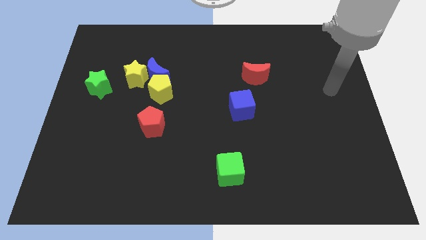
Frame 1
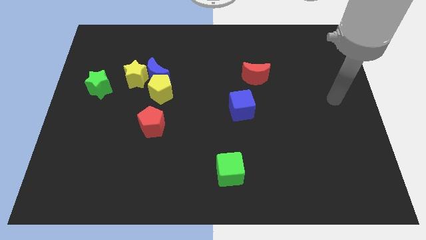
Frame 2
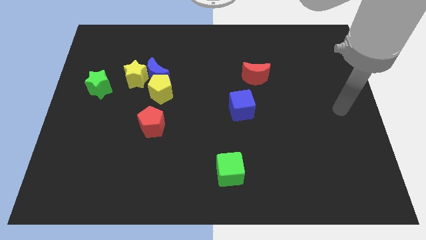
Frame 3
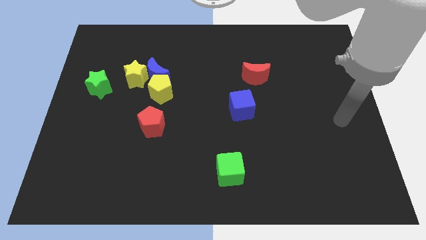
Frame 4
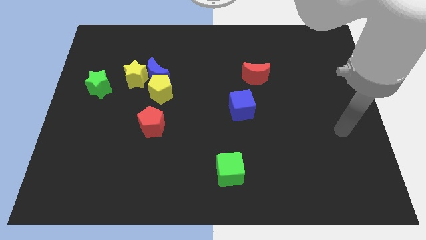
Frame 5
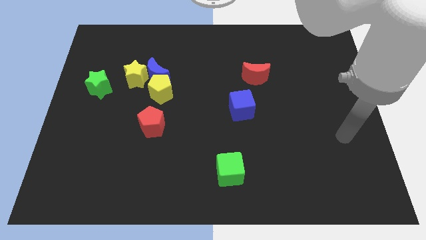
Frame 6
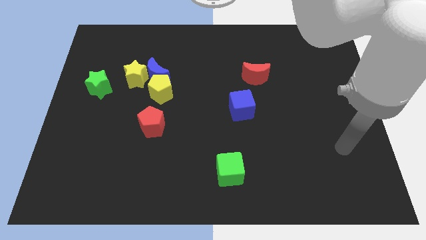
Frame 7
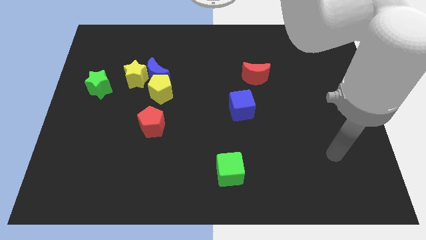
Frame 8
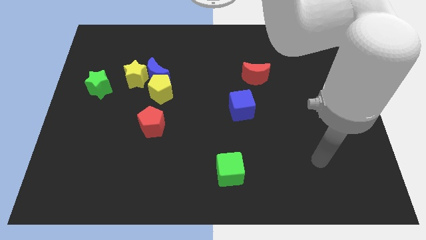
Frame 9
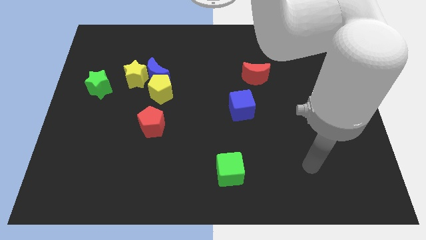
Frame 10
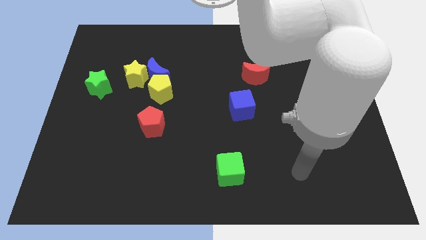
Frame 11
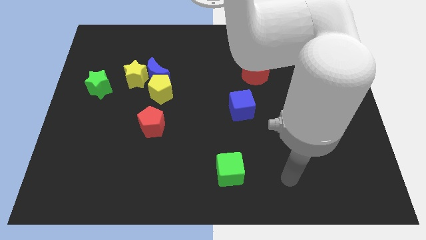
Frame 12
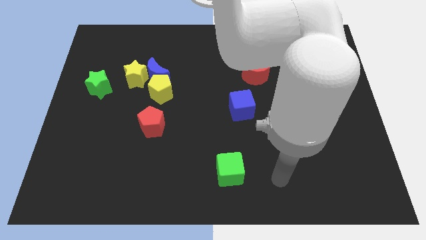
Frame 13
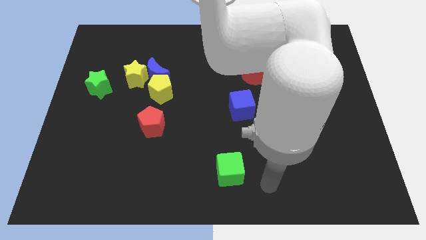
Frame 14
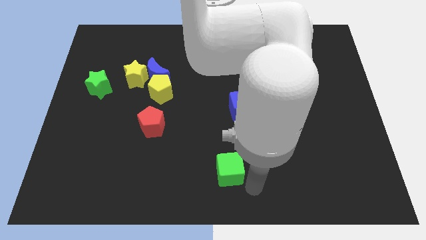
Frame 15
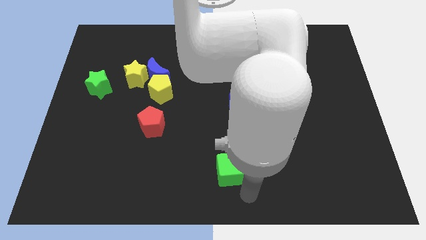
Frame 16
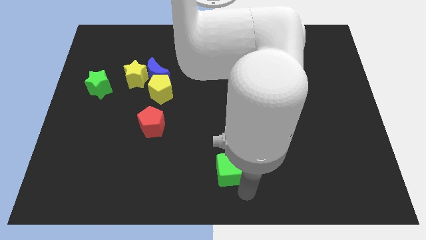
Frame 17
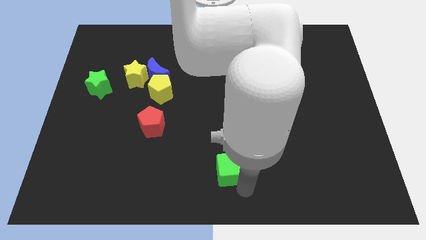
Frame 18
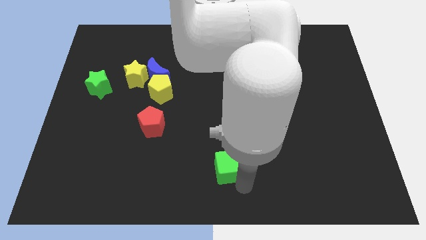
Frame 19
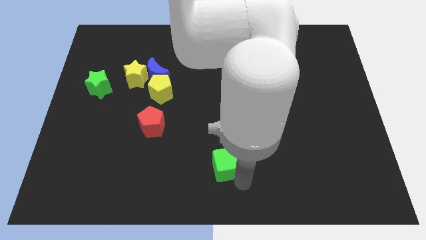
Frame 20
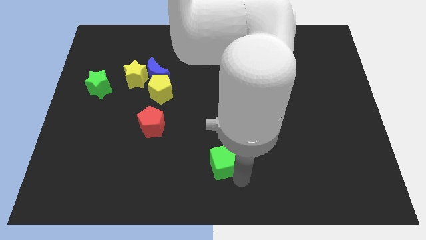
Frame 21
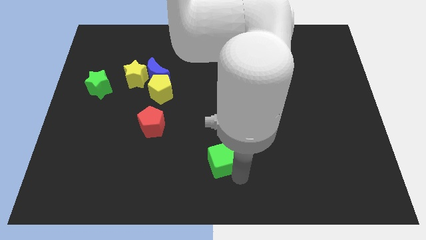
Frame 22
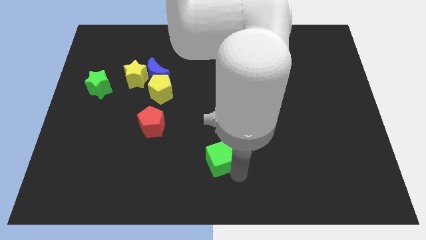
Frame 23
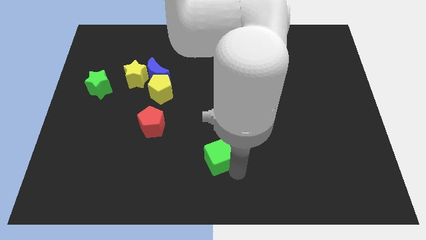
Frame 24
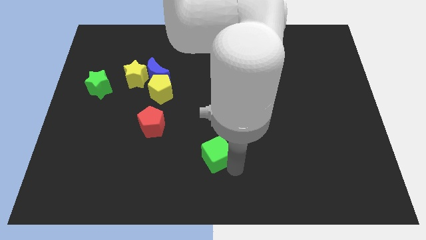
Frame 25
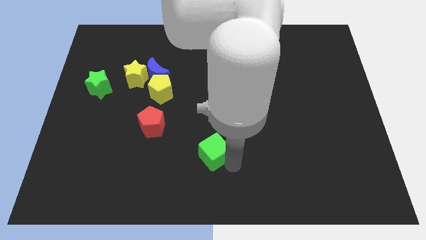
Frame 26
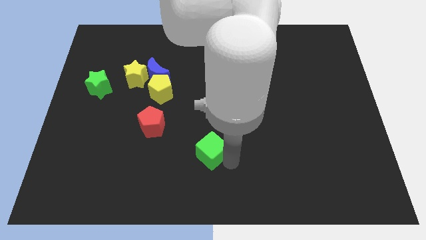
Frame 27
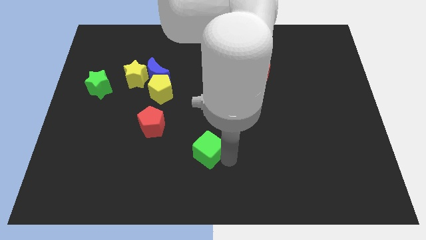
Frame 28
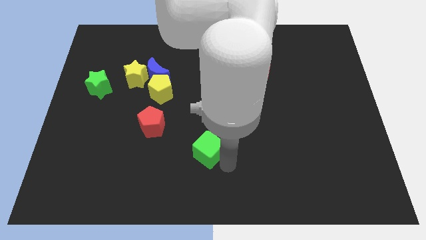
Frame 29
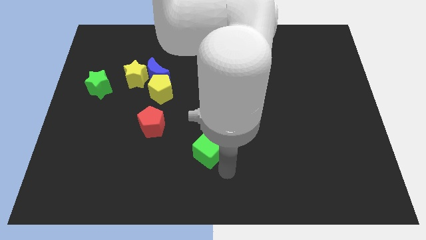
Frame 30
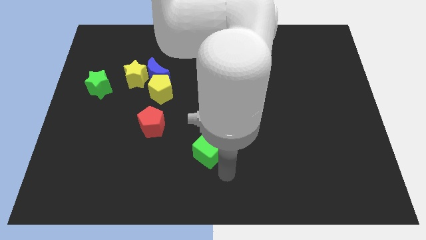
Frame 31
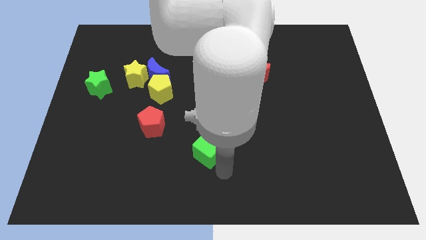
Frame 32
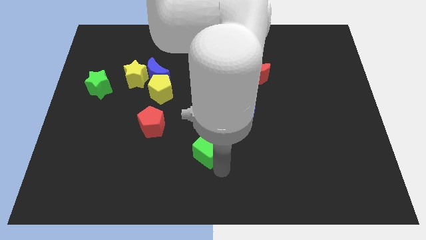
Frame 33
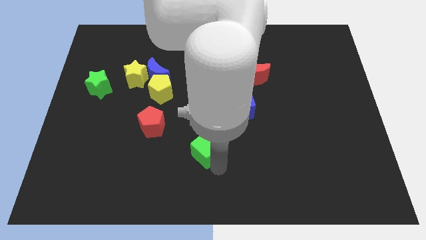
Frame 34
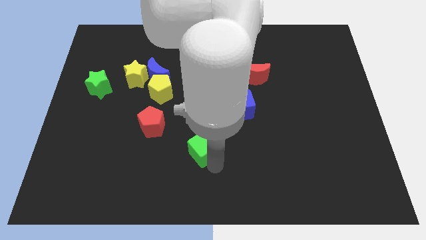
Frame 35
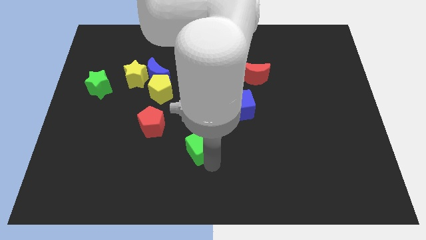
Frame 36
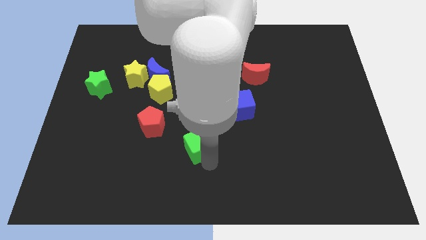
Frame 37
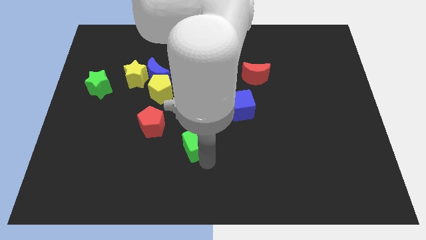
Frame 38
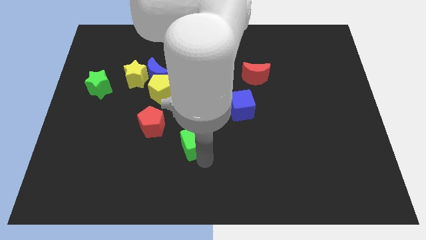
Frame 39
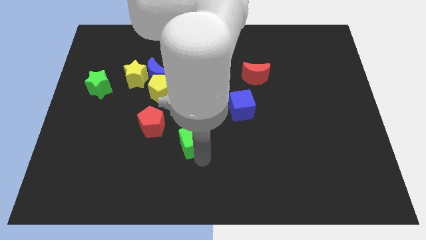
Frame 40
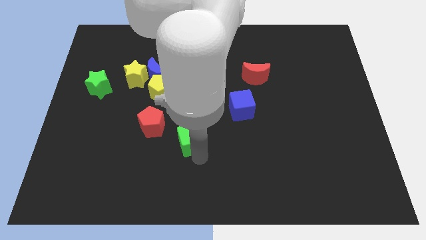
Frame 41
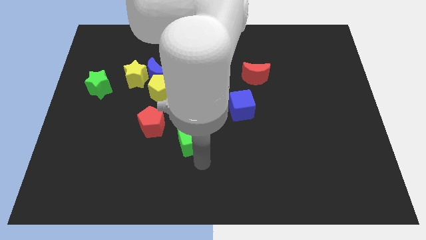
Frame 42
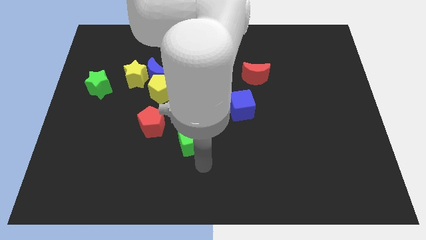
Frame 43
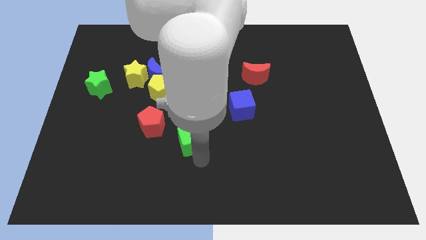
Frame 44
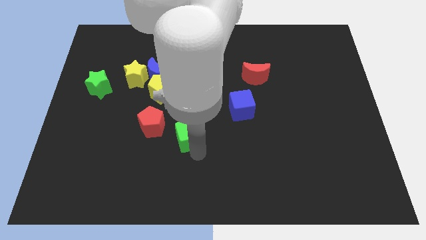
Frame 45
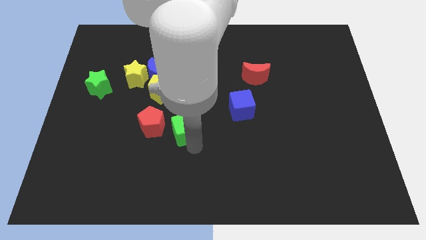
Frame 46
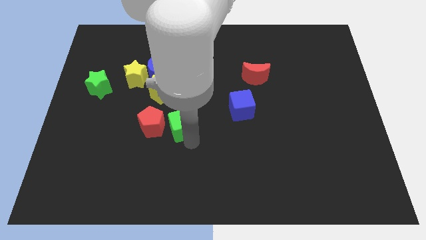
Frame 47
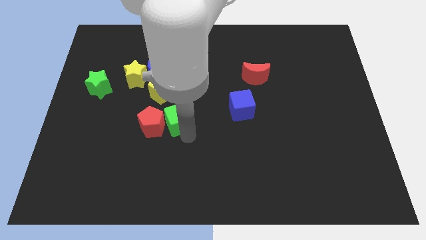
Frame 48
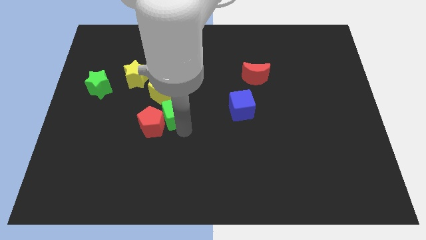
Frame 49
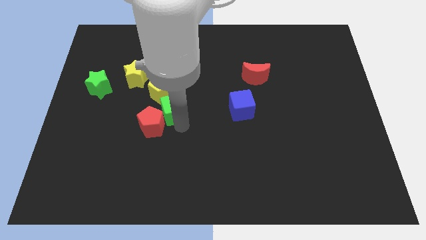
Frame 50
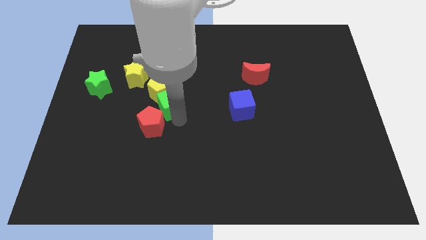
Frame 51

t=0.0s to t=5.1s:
push the green cube close to the yellow pentagon

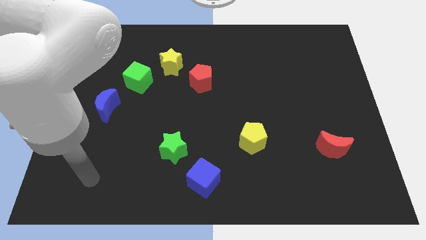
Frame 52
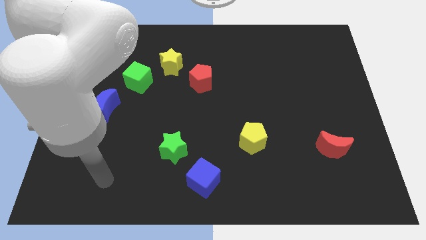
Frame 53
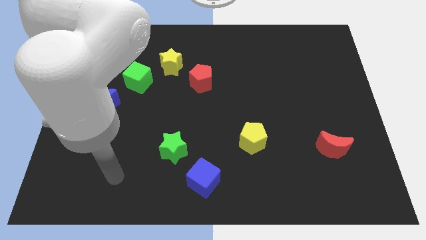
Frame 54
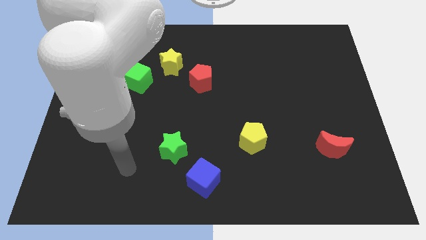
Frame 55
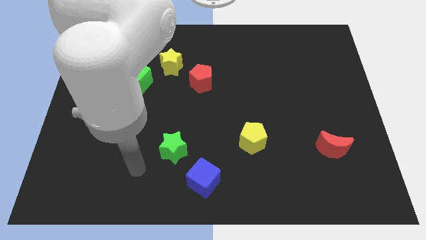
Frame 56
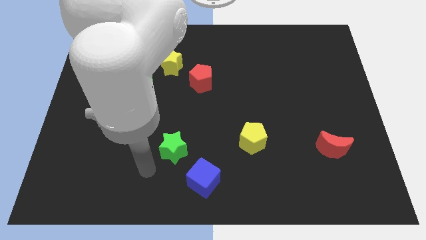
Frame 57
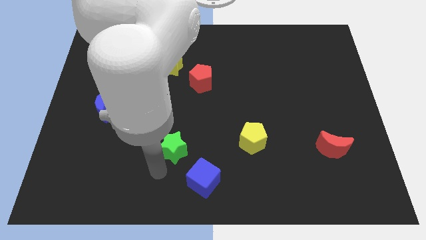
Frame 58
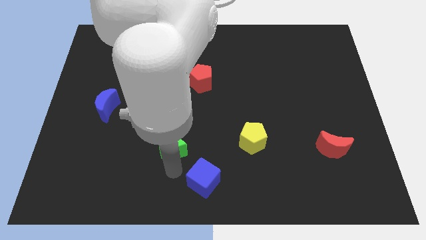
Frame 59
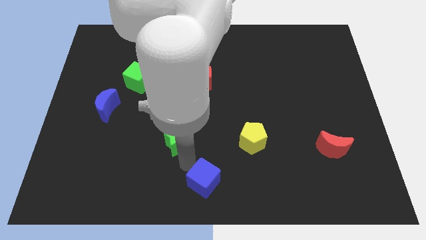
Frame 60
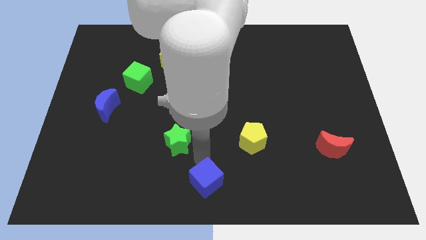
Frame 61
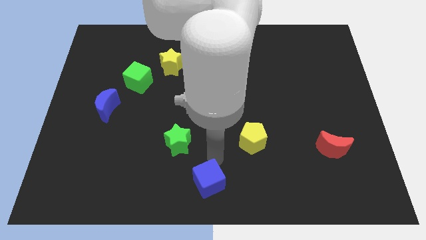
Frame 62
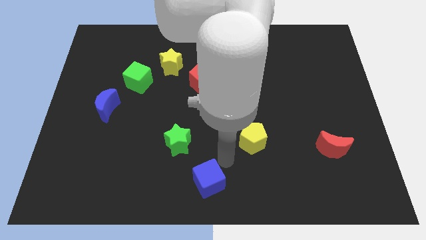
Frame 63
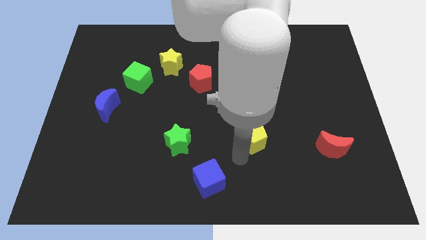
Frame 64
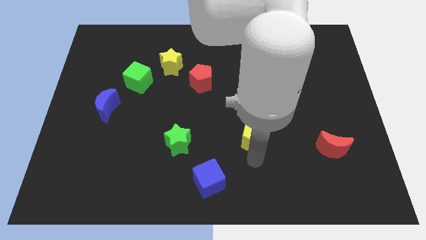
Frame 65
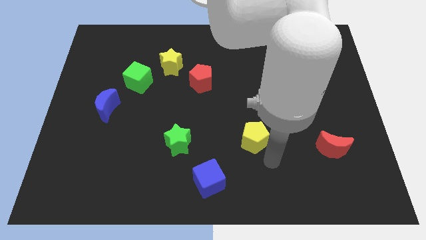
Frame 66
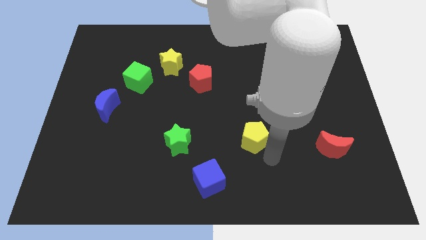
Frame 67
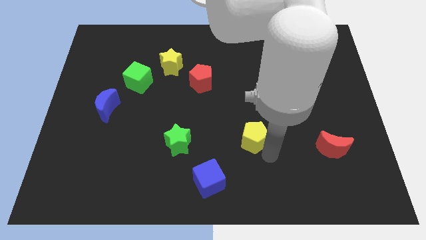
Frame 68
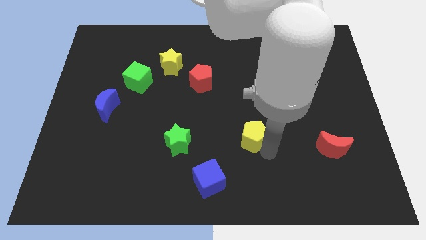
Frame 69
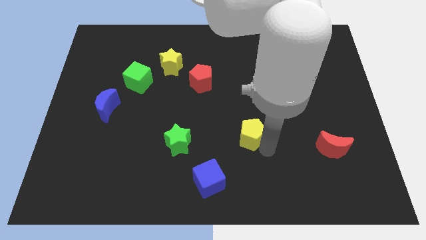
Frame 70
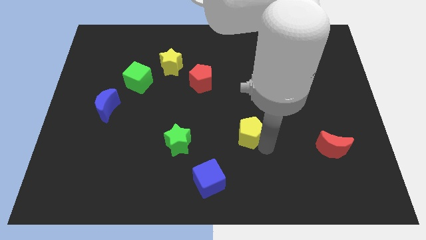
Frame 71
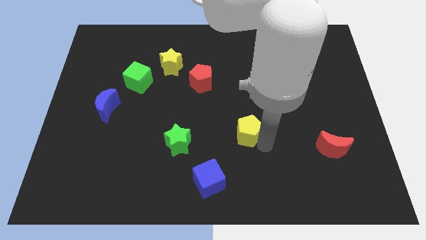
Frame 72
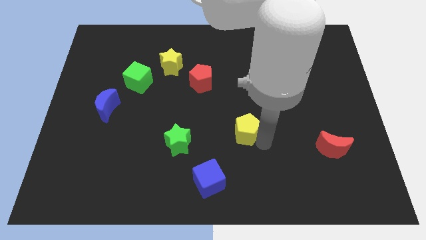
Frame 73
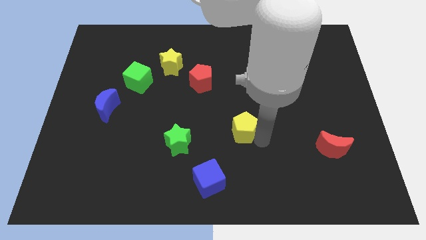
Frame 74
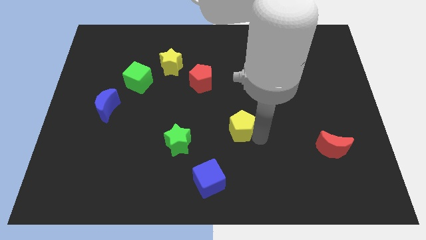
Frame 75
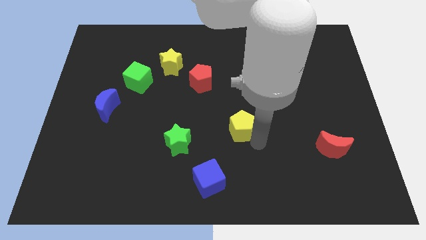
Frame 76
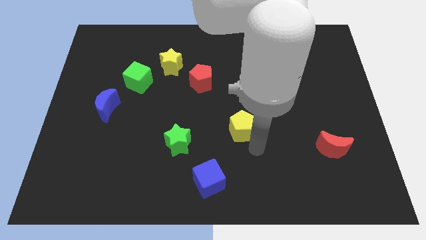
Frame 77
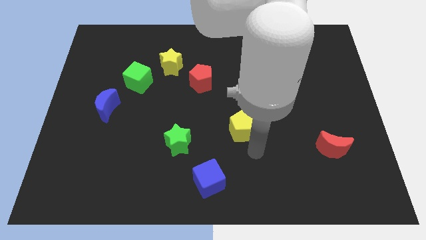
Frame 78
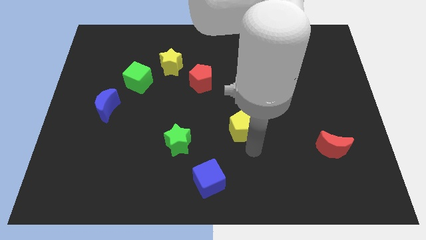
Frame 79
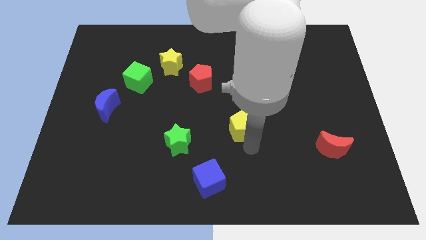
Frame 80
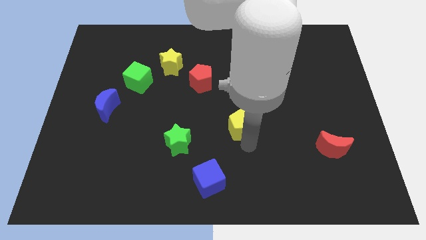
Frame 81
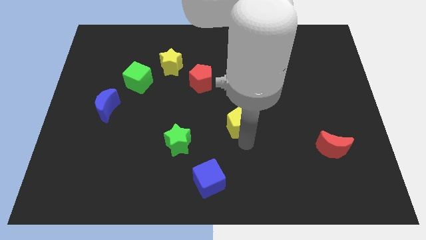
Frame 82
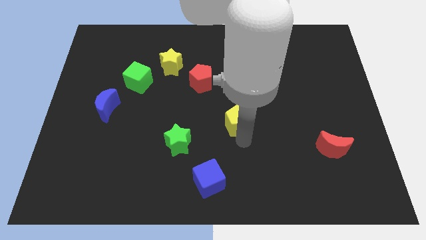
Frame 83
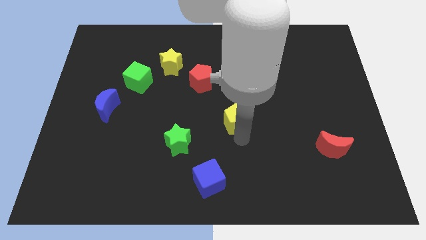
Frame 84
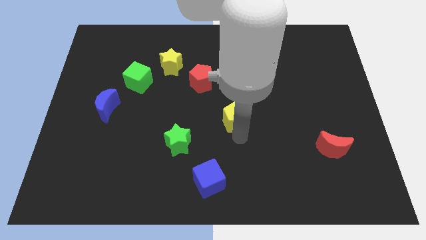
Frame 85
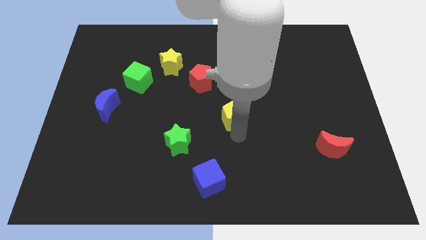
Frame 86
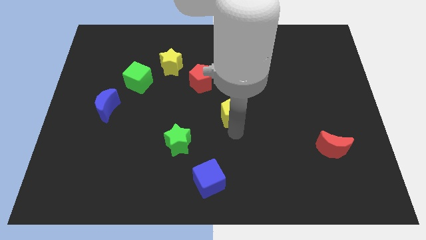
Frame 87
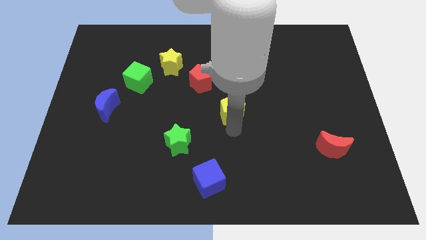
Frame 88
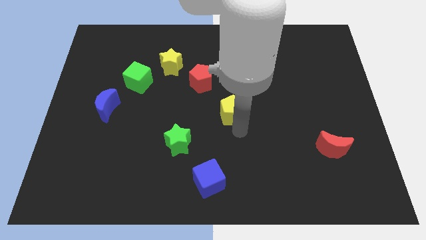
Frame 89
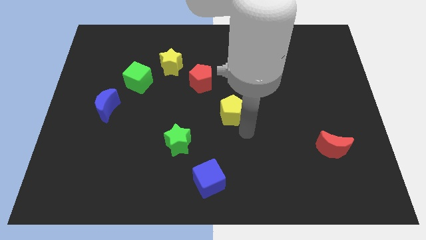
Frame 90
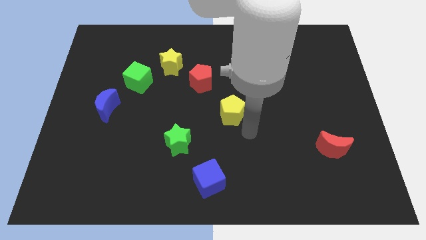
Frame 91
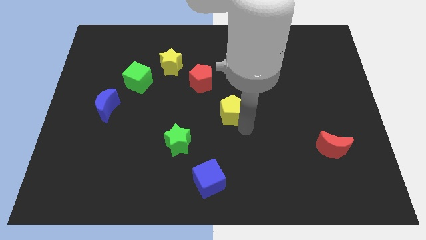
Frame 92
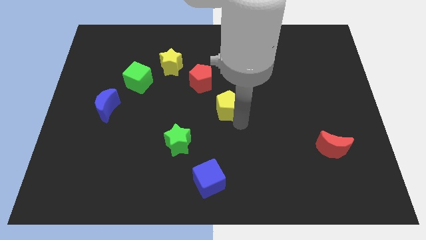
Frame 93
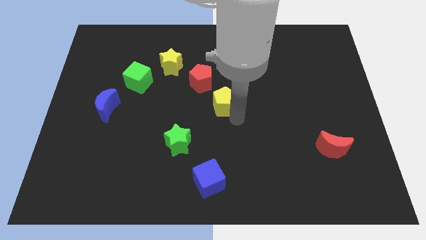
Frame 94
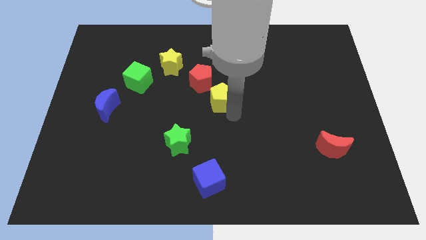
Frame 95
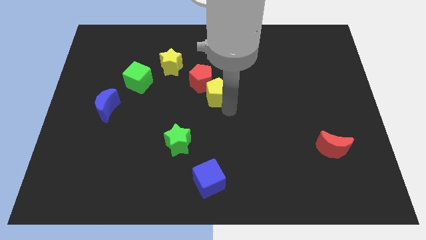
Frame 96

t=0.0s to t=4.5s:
put the yellow pentagon close to the red pentagon
